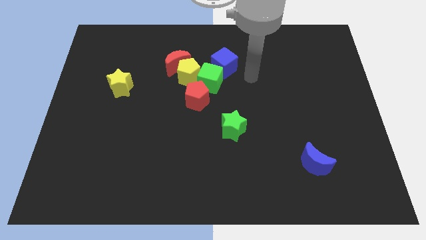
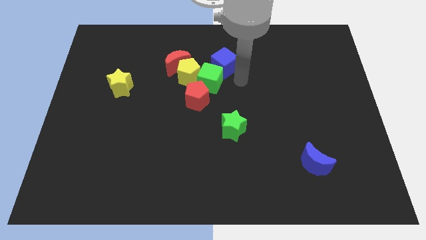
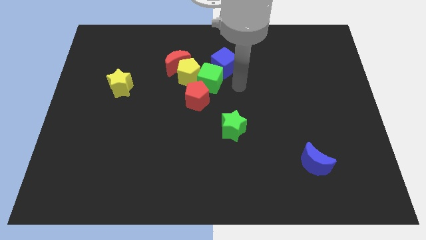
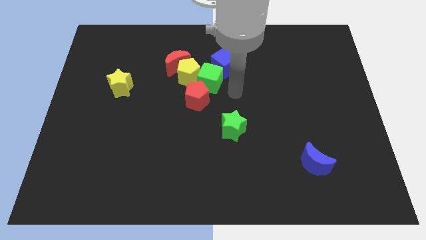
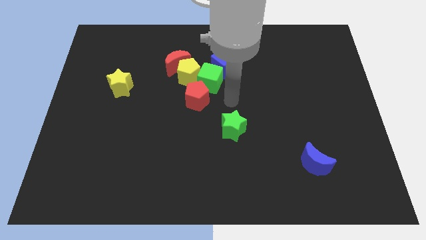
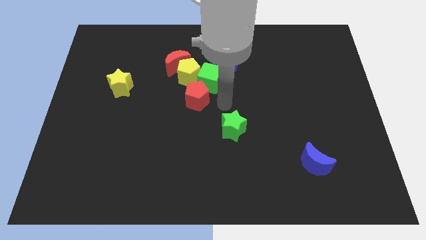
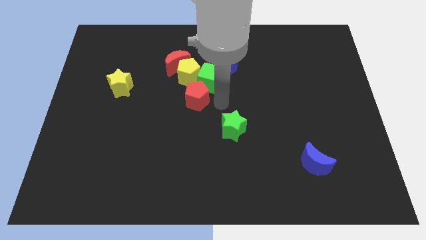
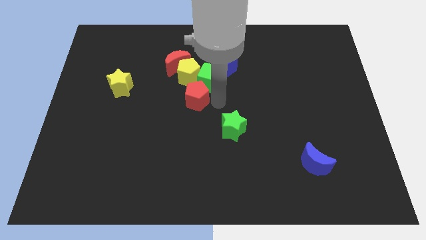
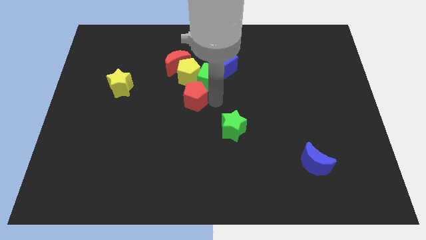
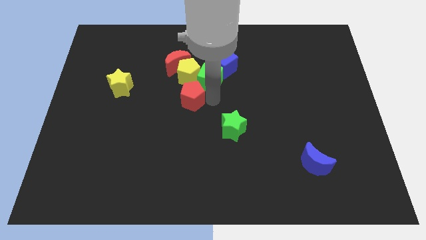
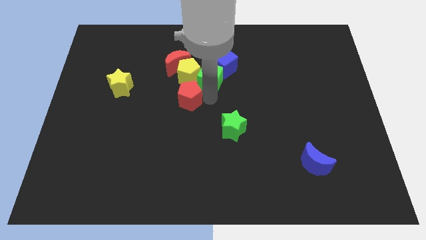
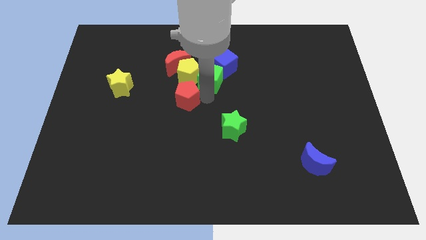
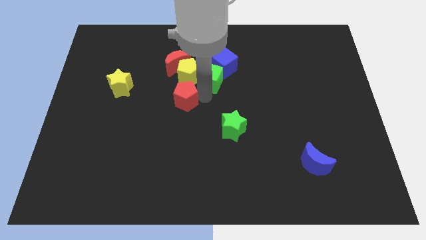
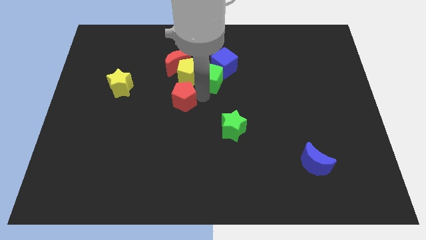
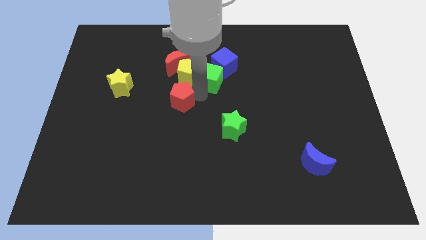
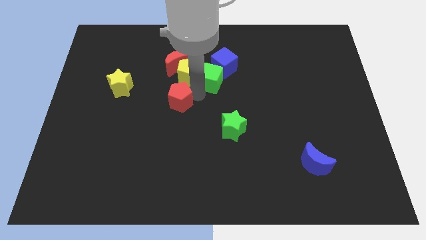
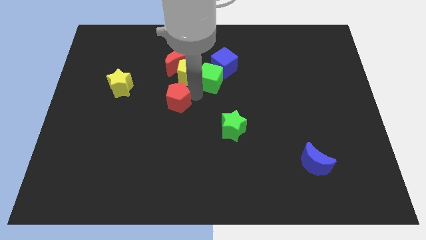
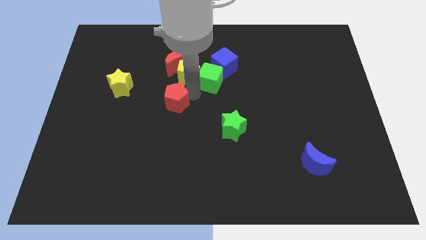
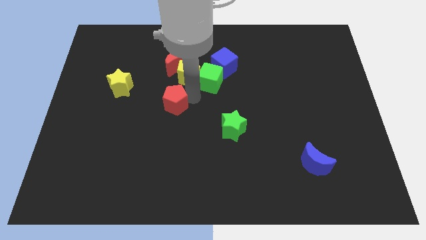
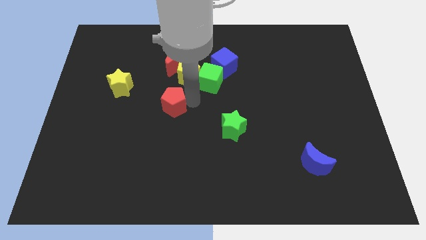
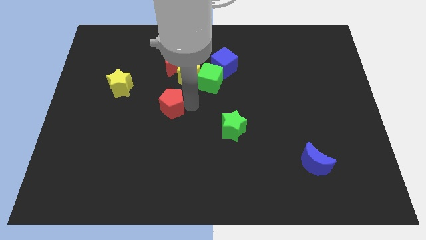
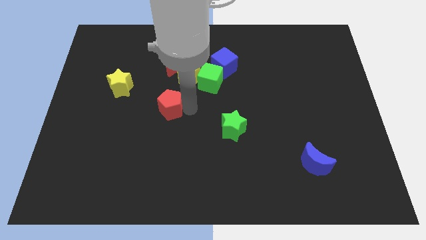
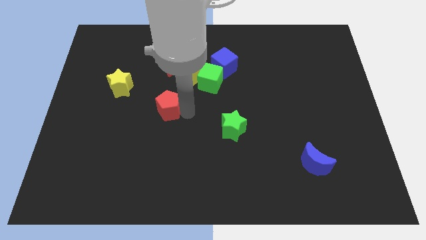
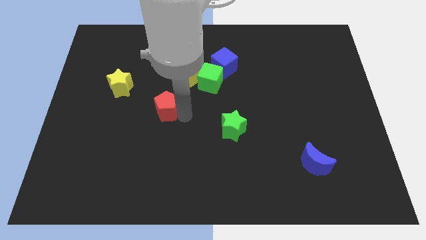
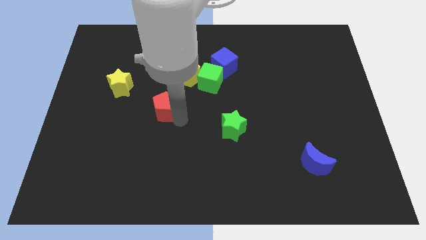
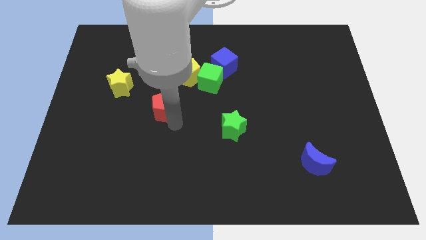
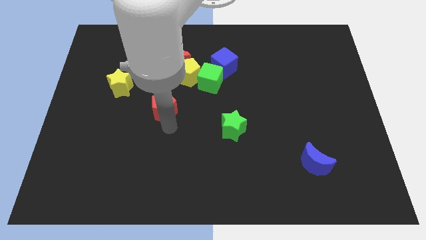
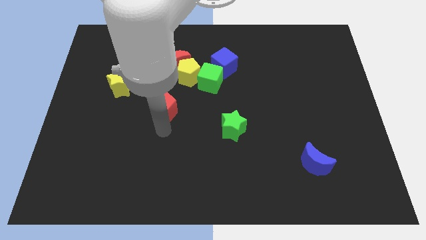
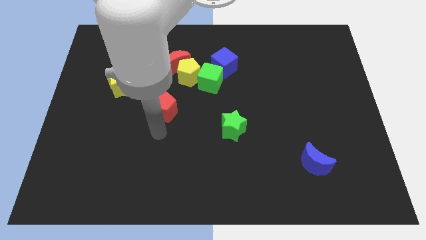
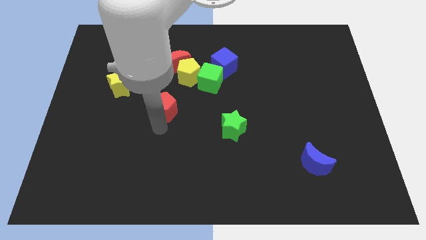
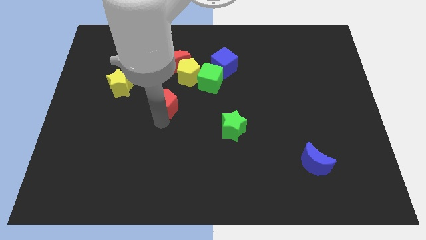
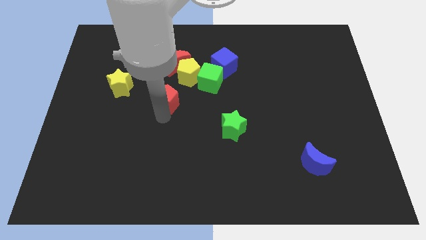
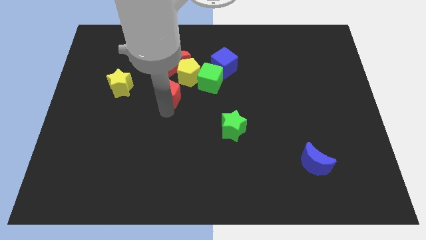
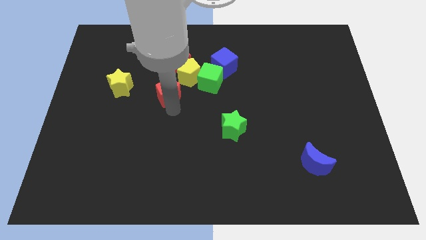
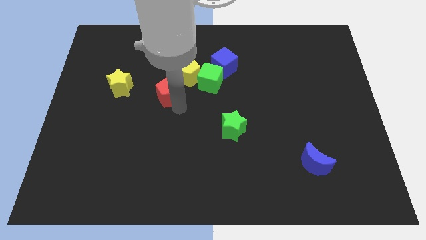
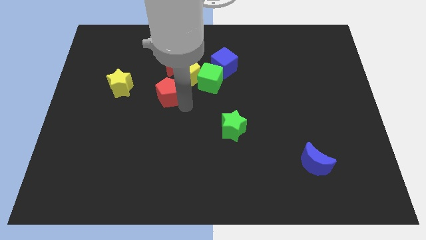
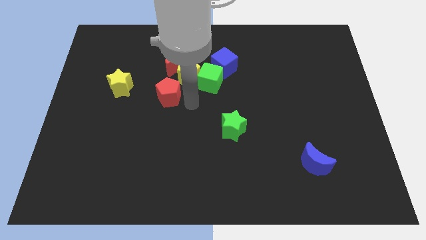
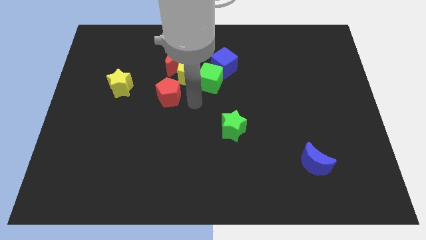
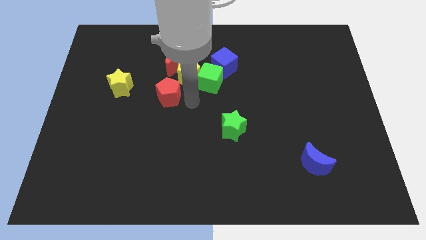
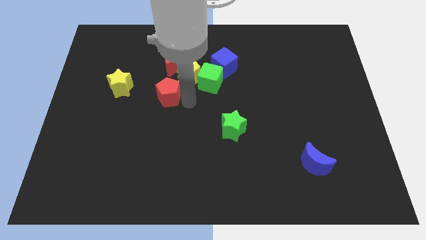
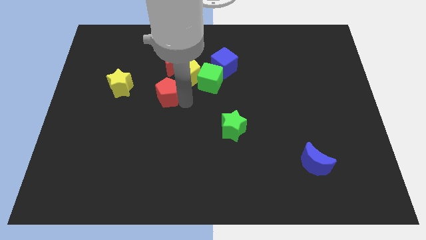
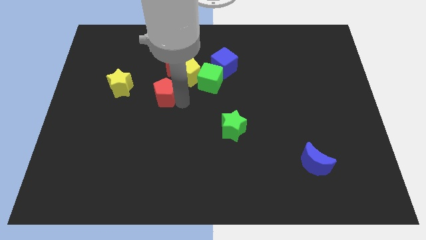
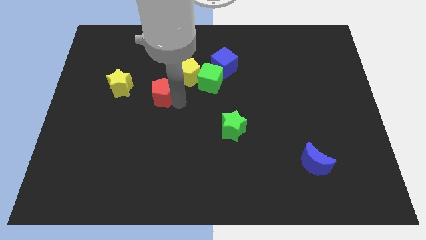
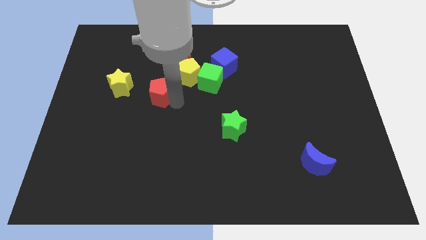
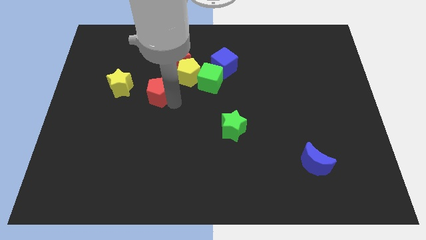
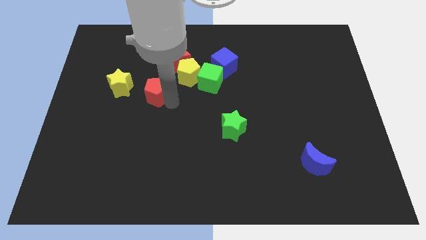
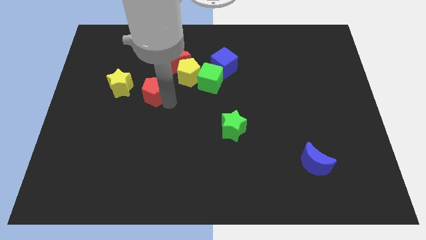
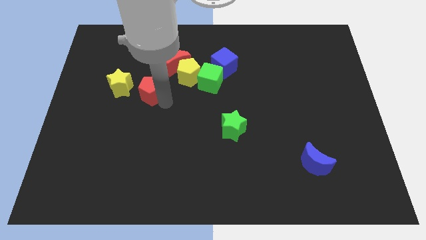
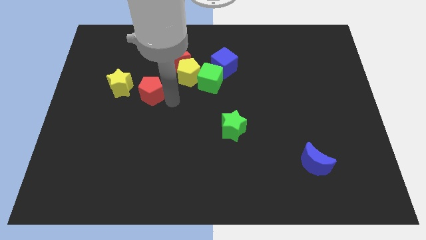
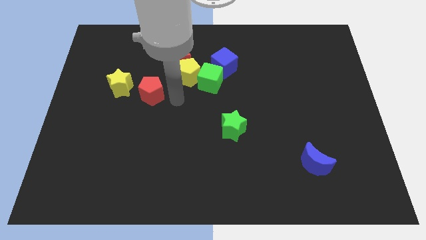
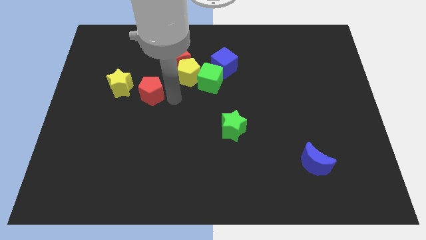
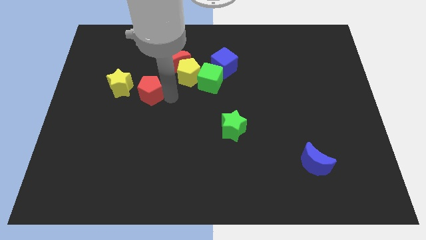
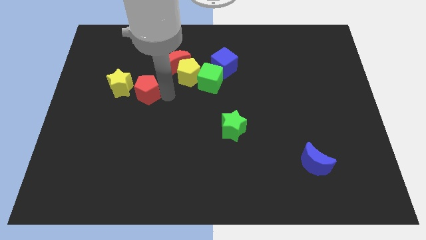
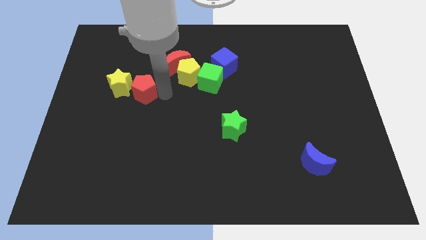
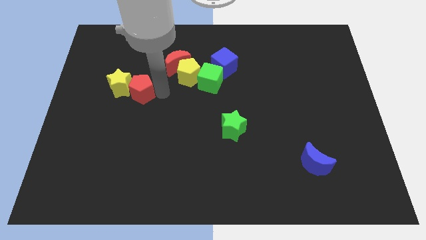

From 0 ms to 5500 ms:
push the red pentagon next to the yellow star

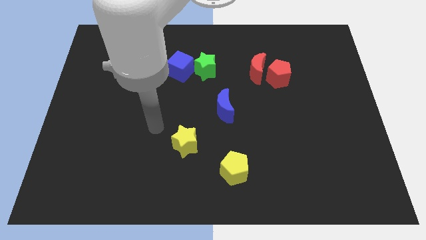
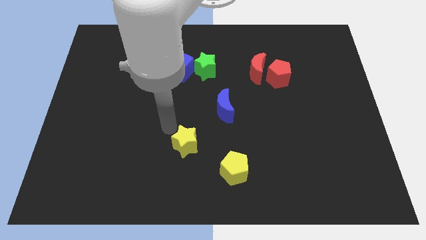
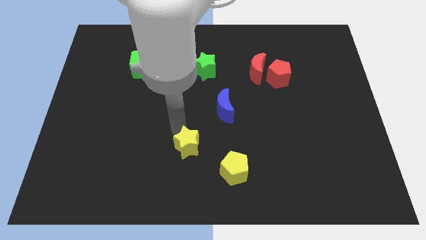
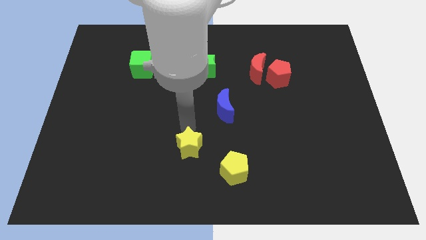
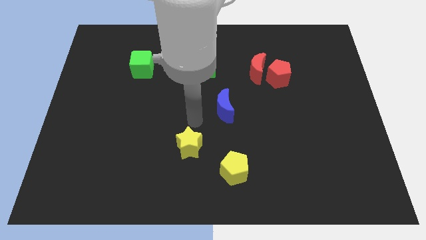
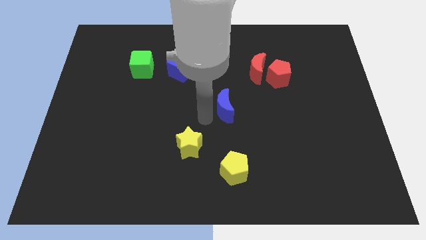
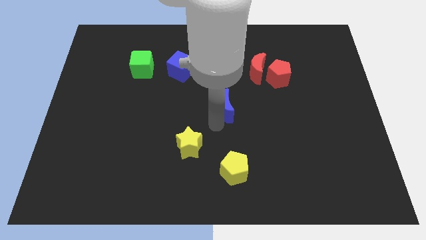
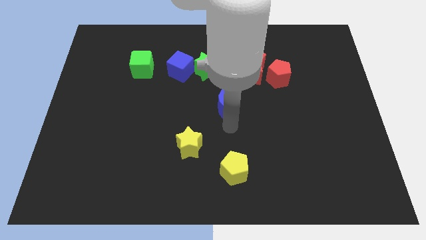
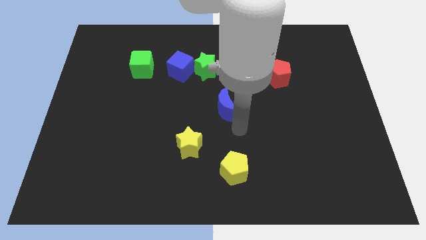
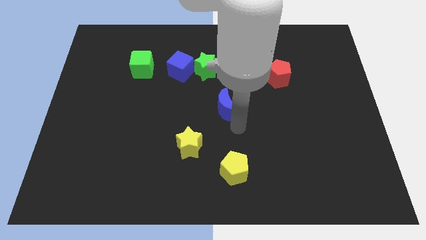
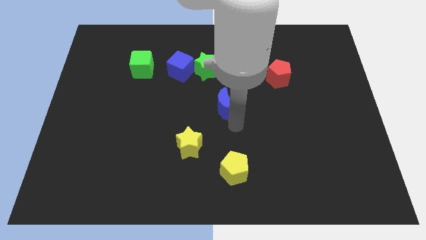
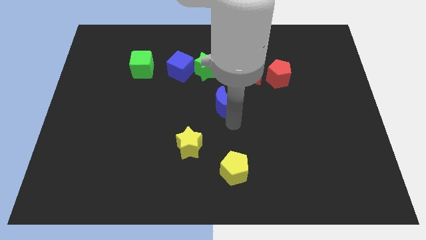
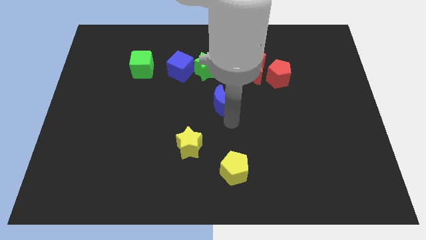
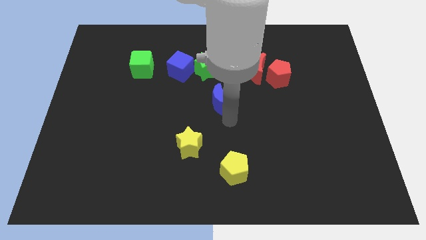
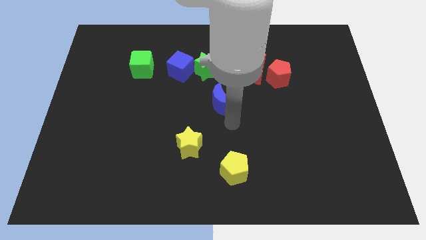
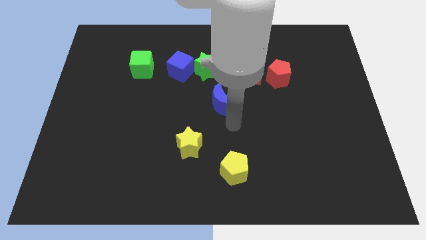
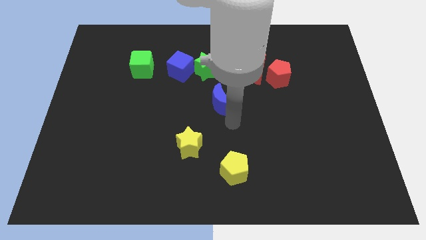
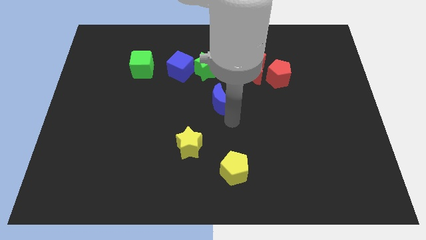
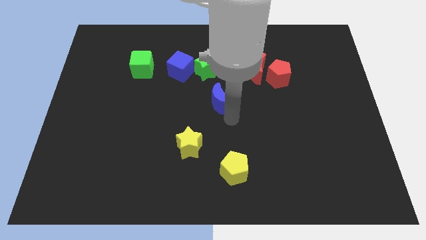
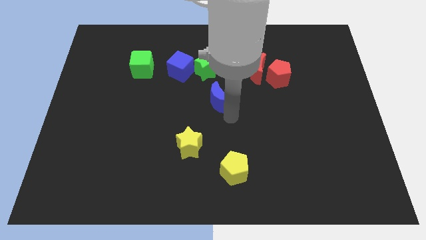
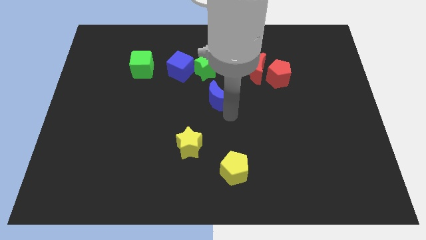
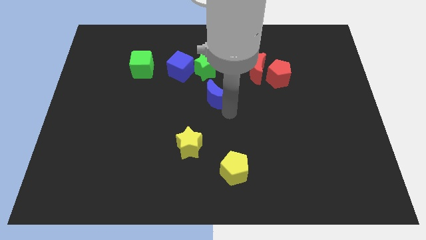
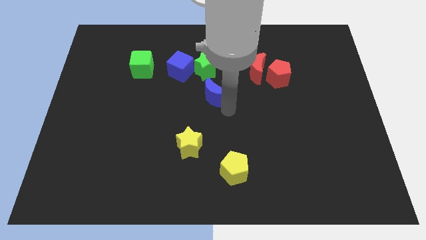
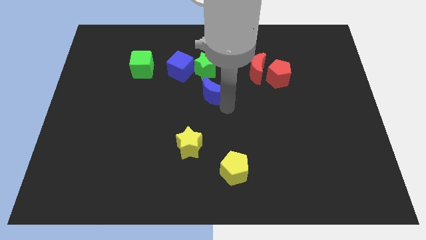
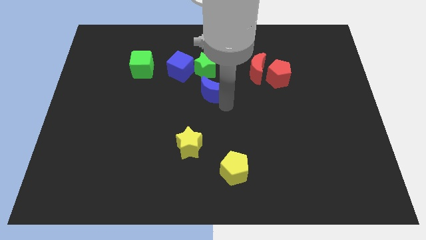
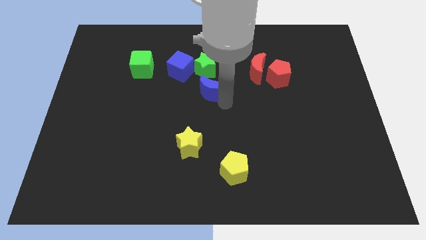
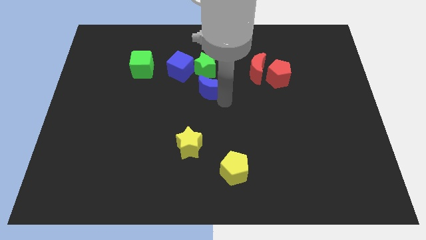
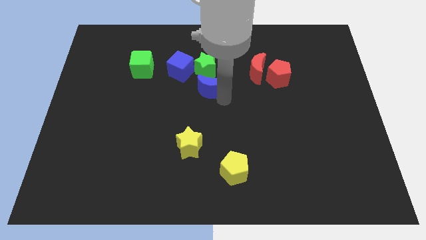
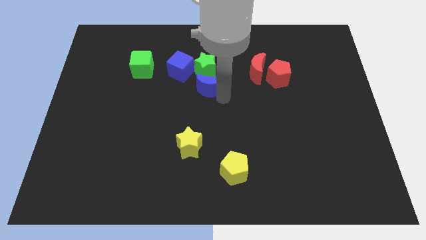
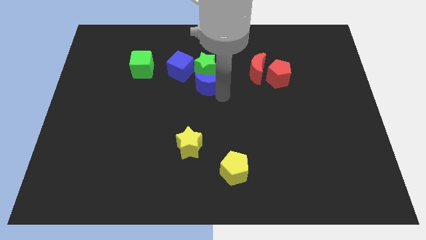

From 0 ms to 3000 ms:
push the blue moon to the green star
